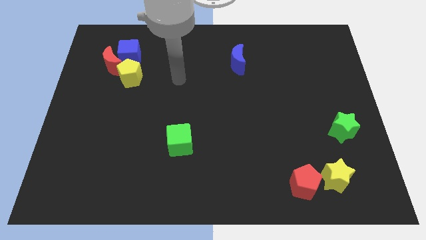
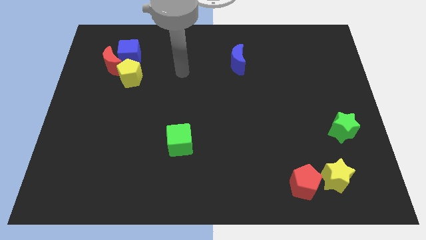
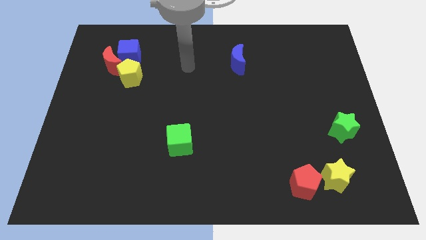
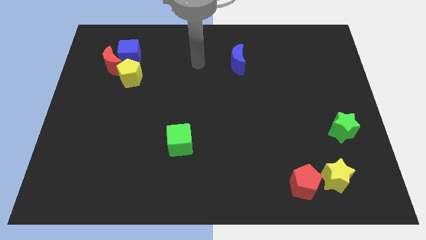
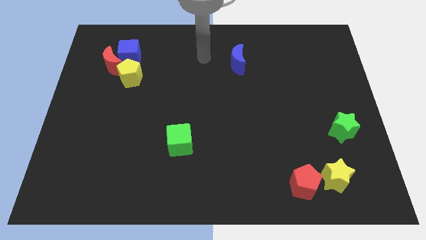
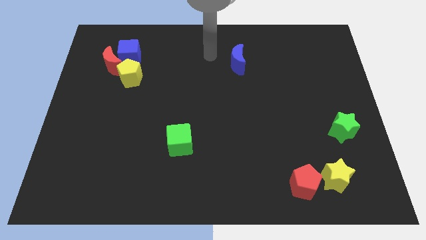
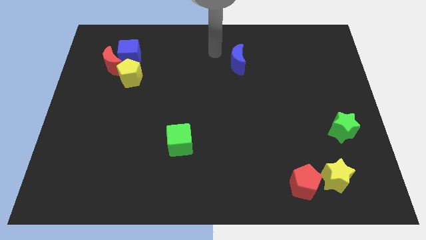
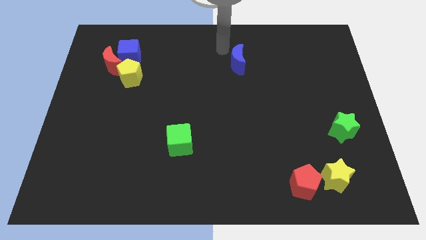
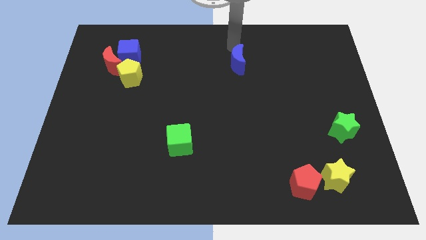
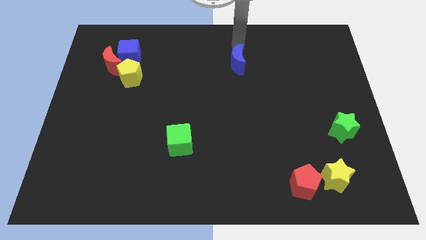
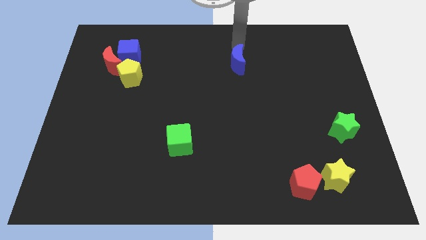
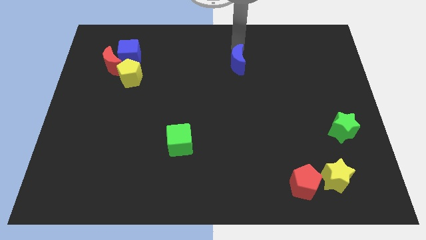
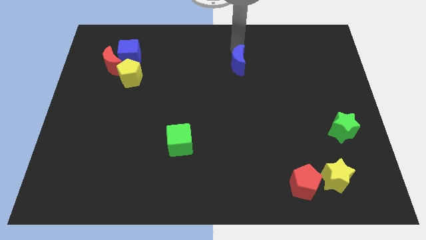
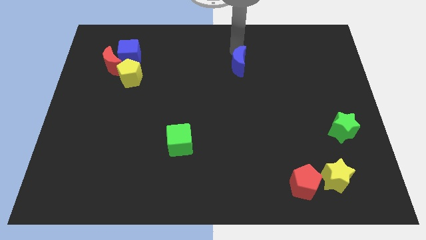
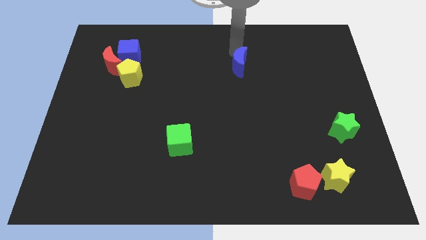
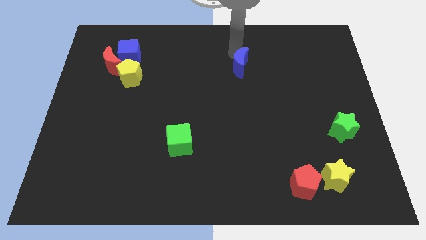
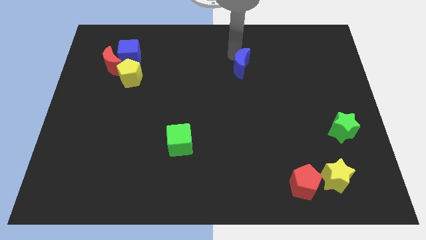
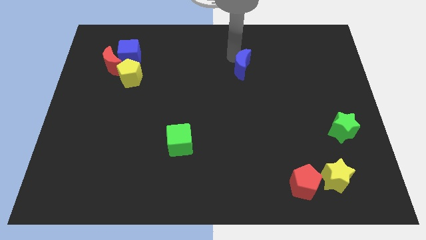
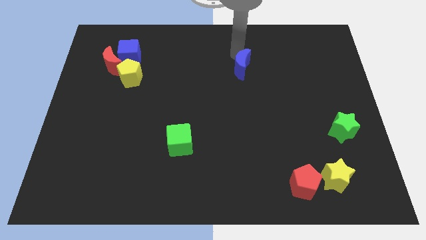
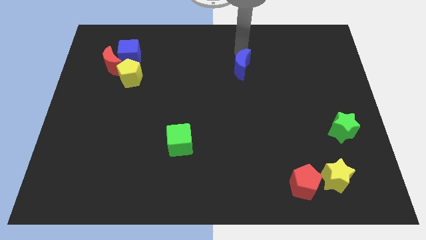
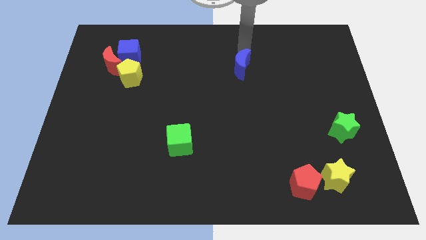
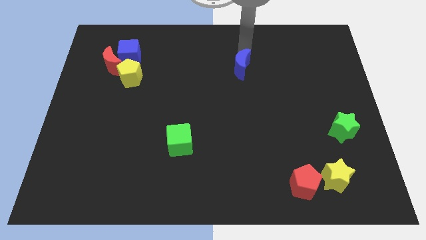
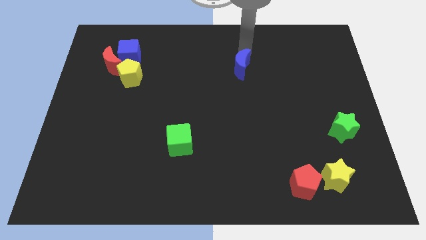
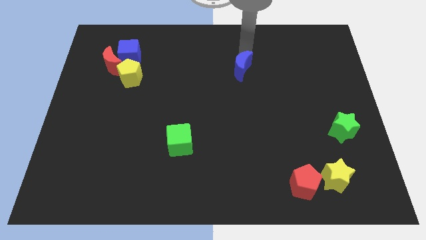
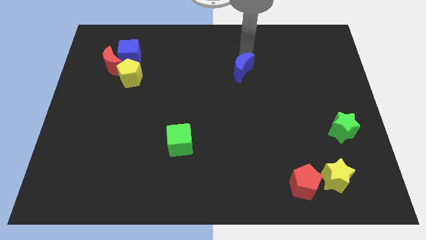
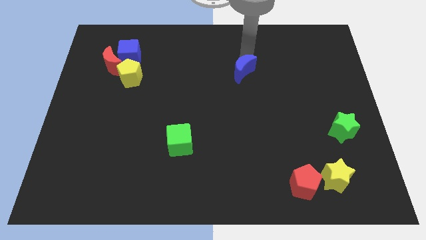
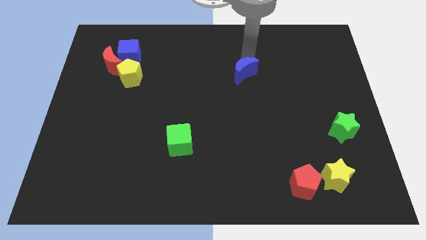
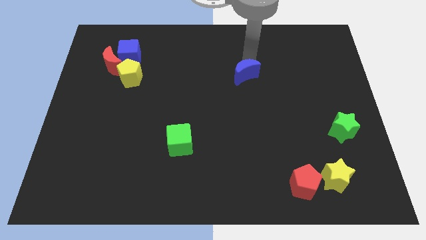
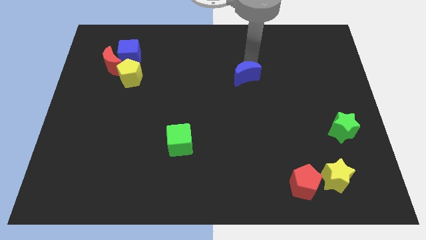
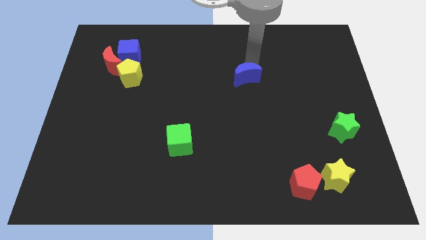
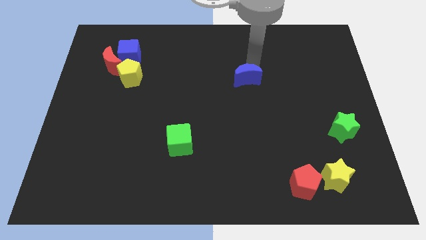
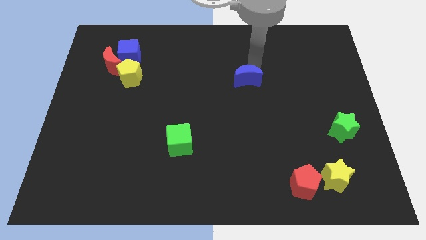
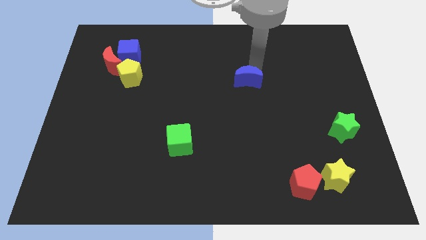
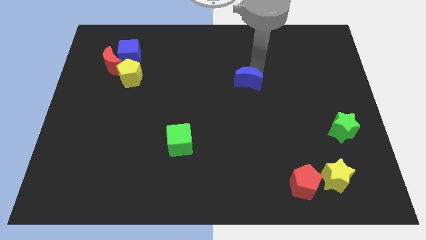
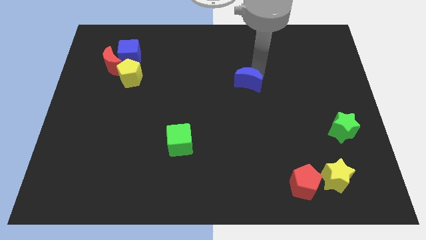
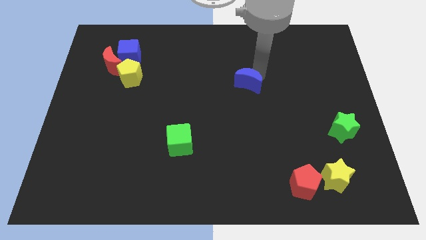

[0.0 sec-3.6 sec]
push the blue moon down somewhat

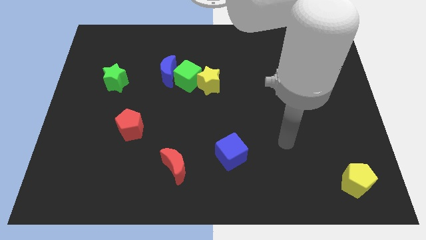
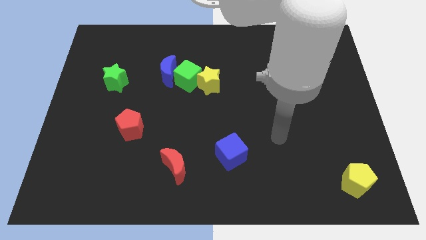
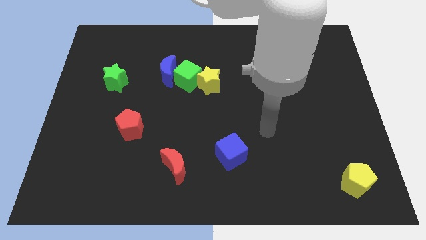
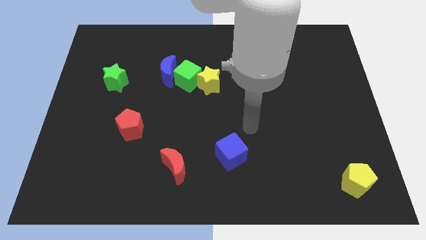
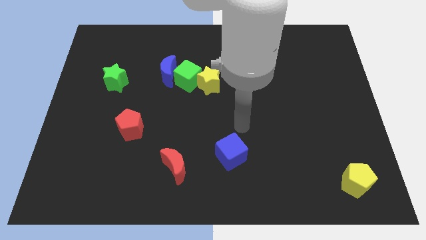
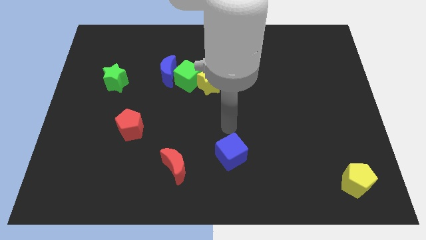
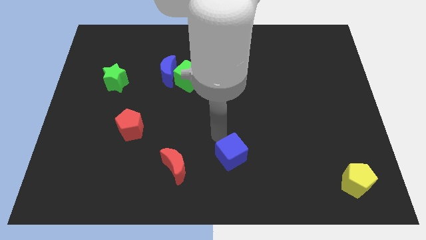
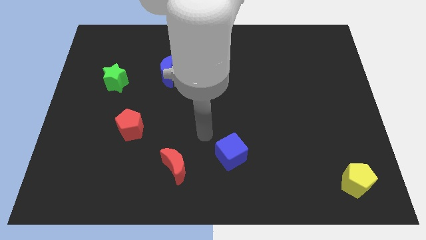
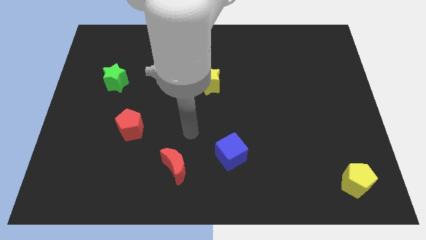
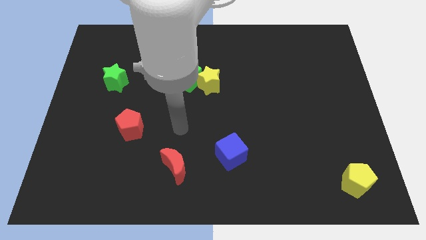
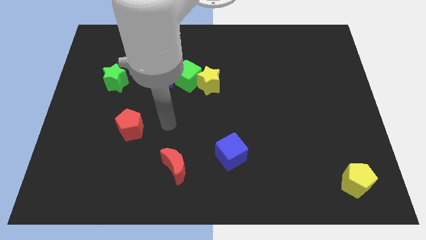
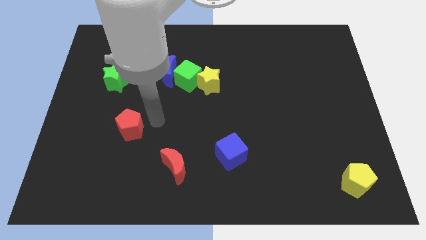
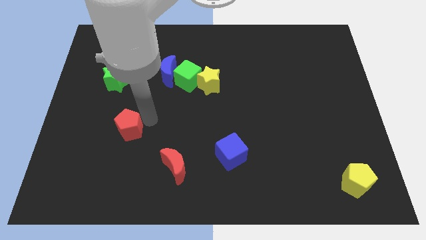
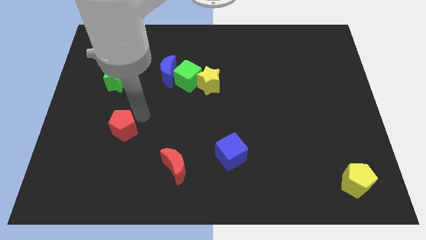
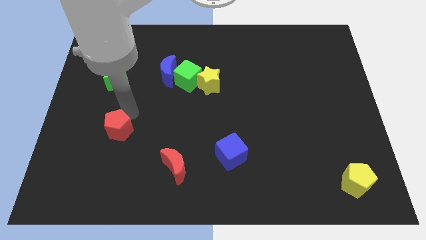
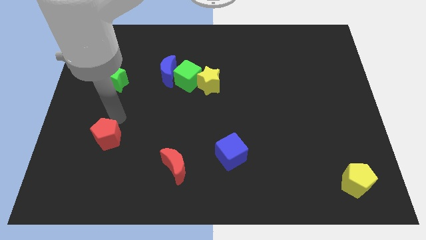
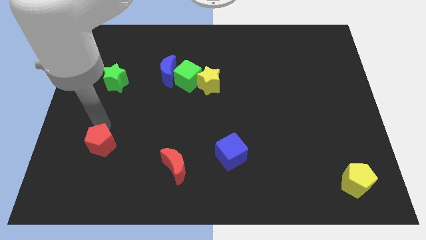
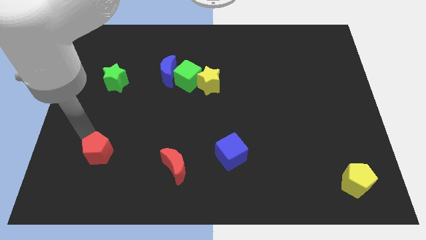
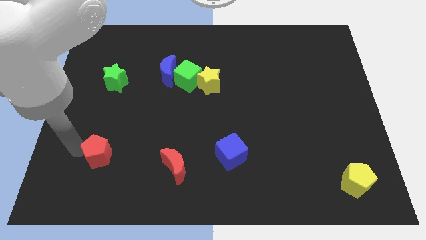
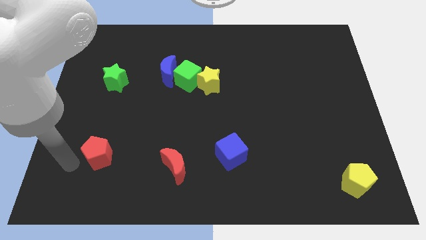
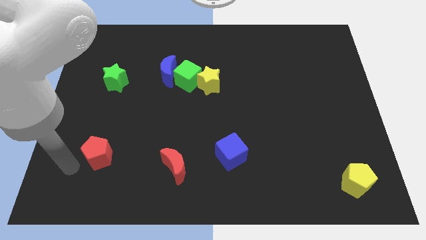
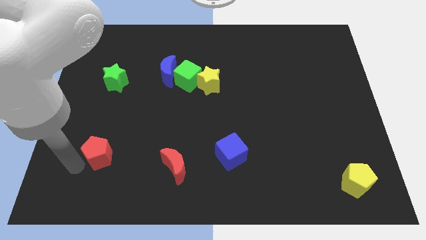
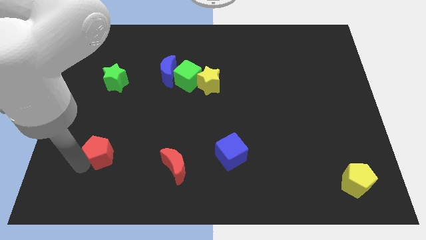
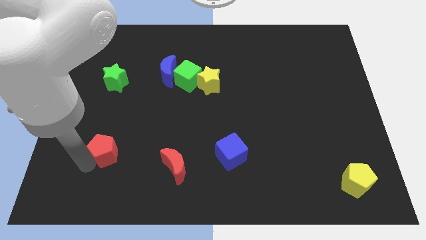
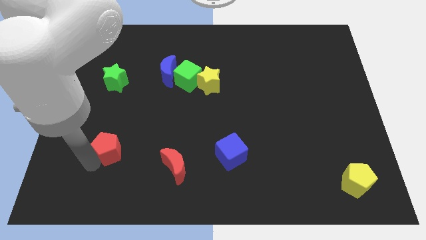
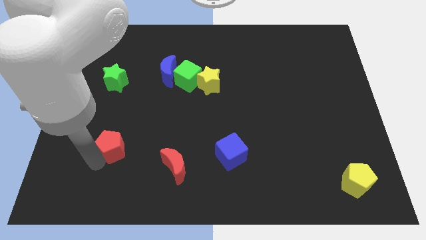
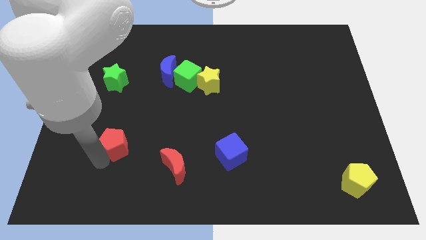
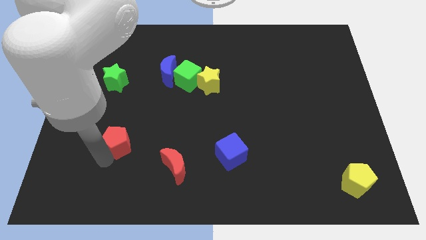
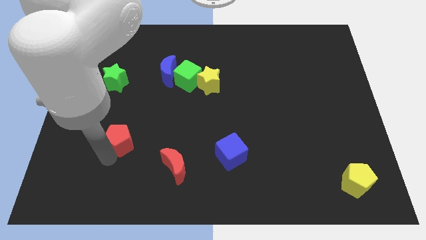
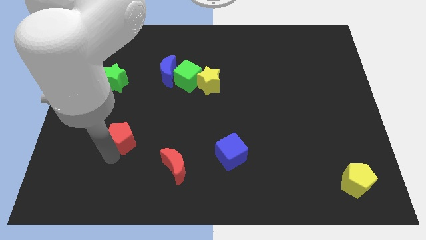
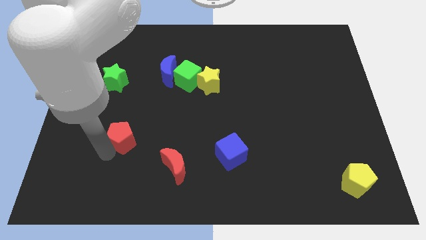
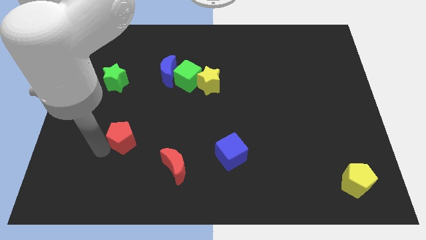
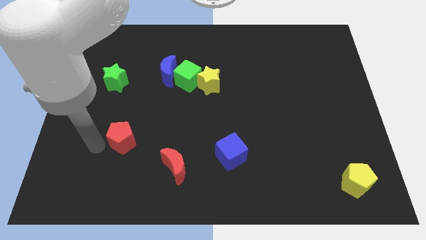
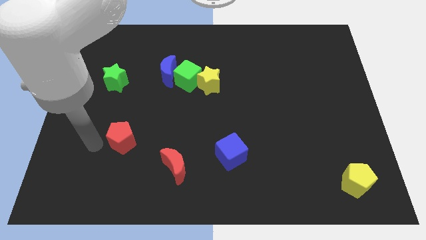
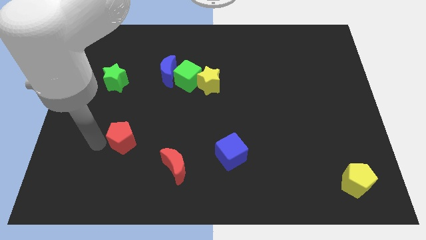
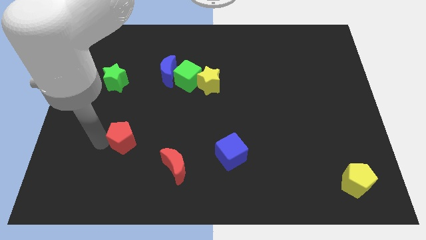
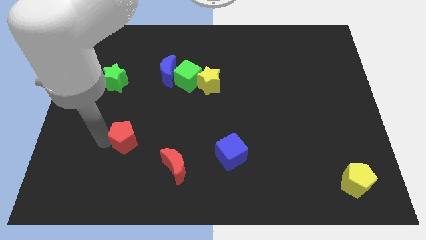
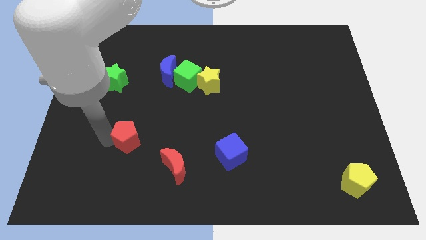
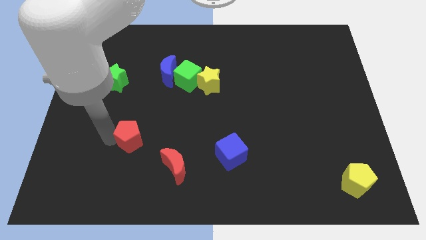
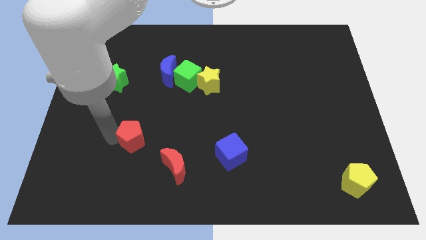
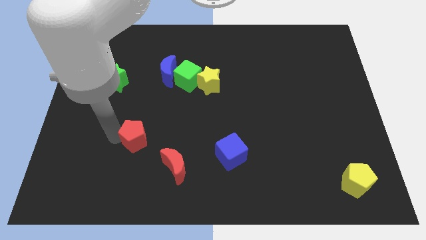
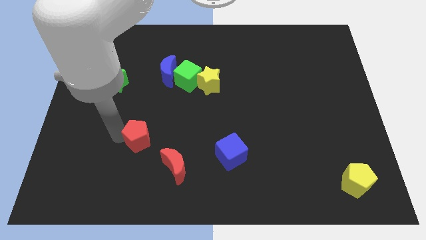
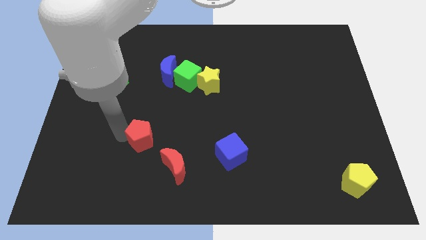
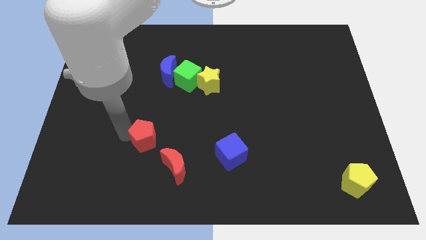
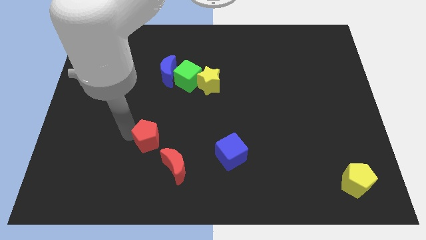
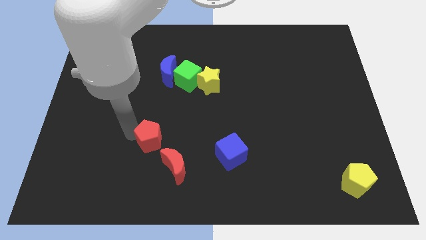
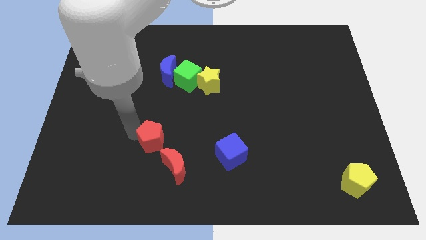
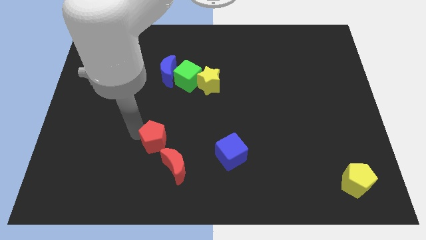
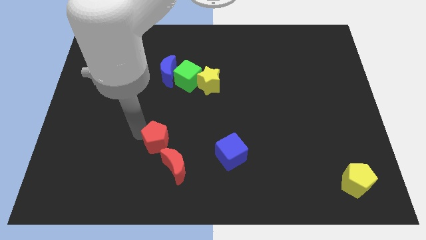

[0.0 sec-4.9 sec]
push the red pentagon downwards and right a little
